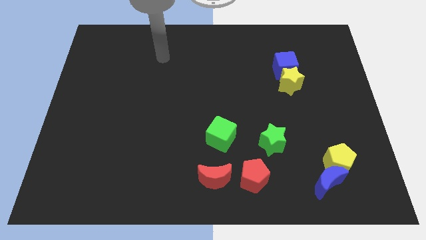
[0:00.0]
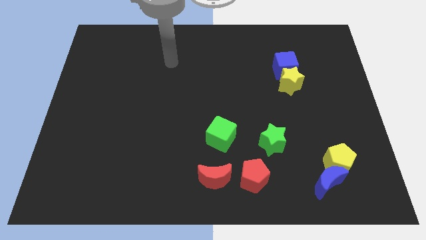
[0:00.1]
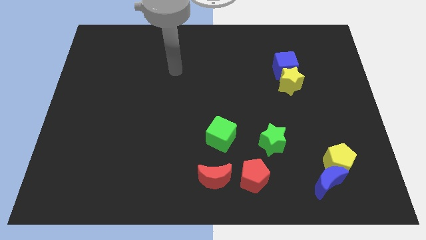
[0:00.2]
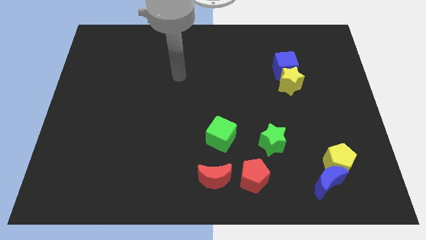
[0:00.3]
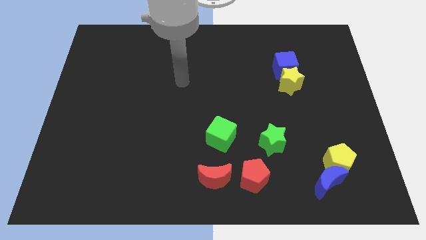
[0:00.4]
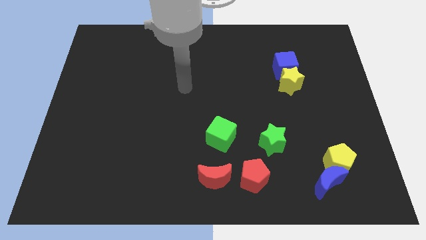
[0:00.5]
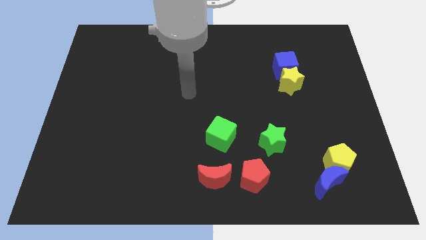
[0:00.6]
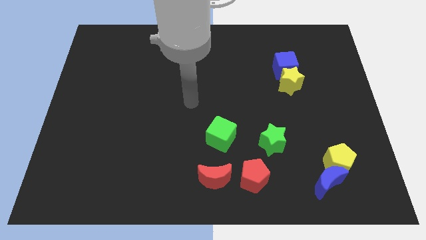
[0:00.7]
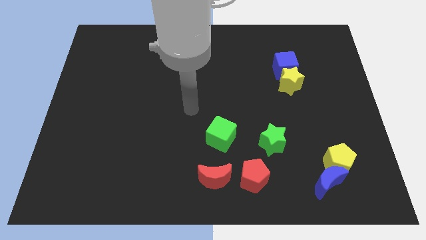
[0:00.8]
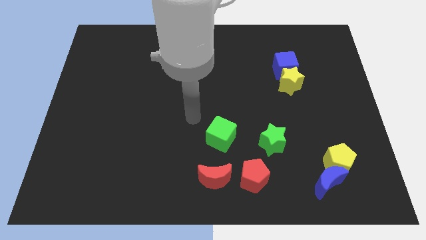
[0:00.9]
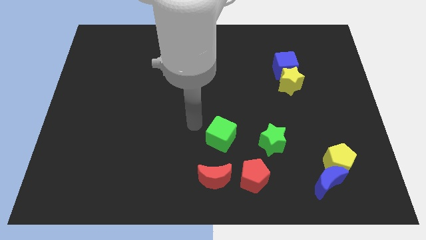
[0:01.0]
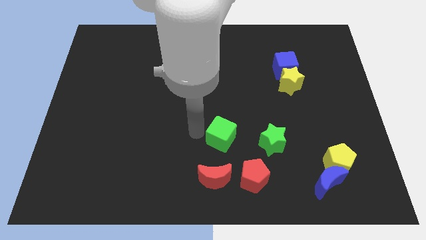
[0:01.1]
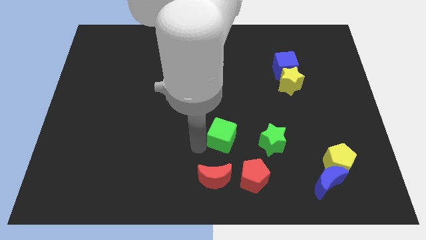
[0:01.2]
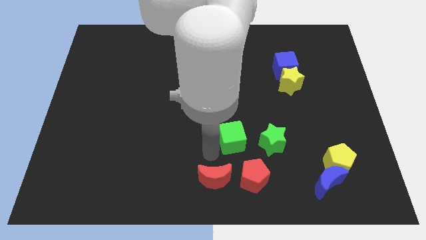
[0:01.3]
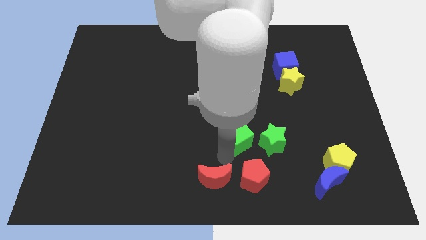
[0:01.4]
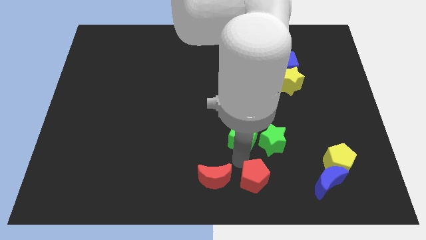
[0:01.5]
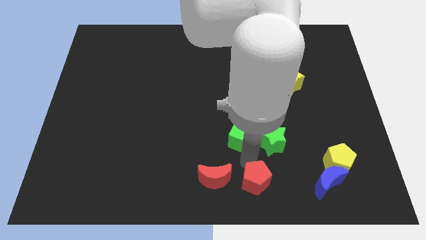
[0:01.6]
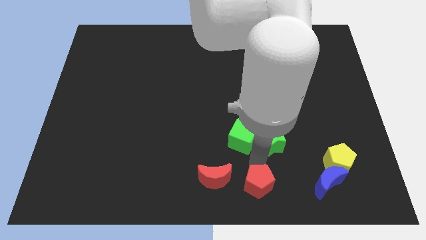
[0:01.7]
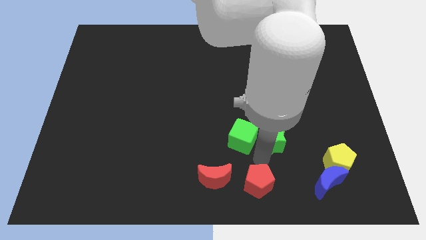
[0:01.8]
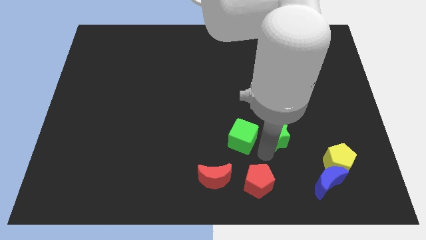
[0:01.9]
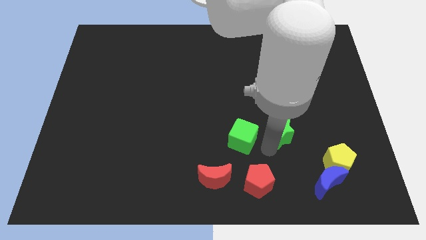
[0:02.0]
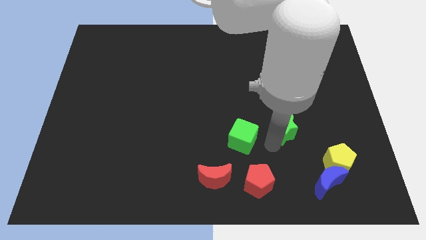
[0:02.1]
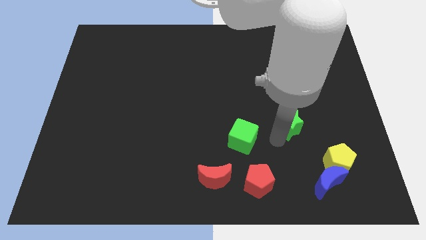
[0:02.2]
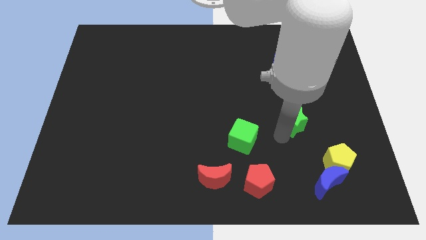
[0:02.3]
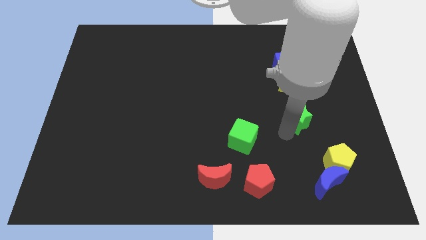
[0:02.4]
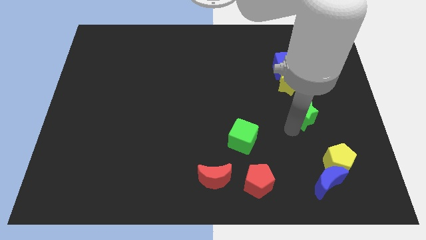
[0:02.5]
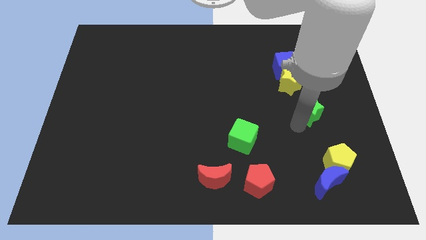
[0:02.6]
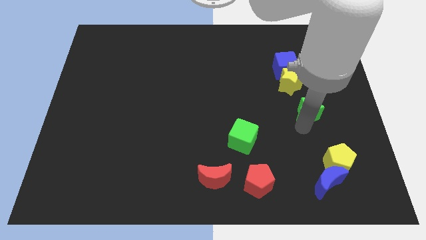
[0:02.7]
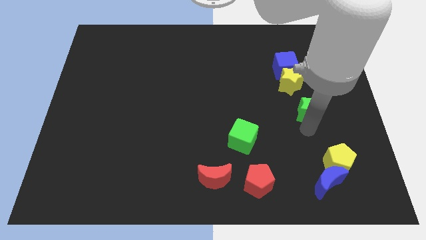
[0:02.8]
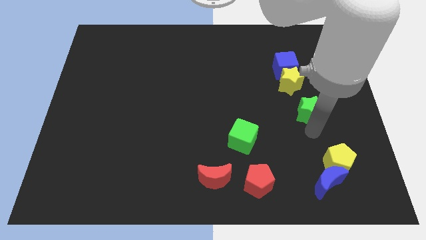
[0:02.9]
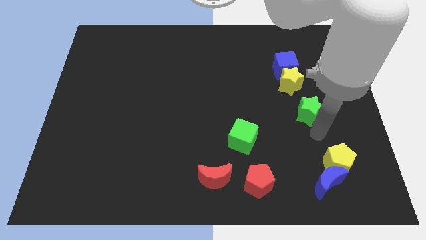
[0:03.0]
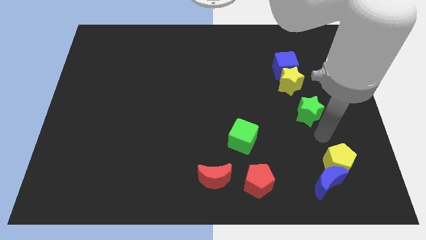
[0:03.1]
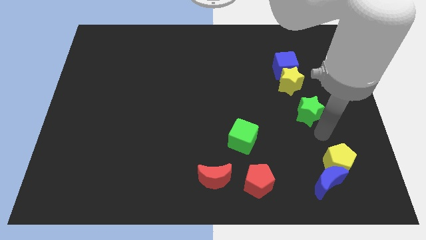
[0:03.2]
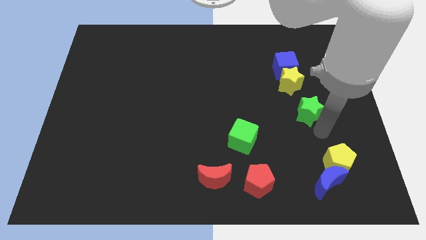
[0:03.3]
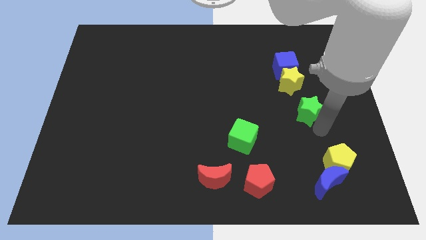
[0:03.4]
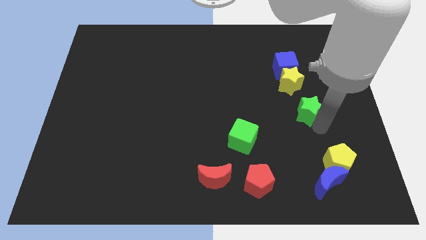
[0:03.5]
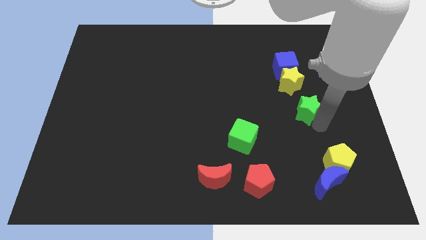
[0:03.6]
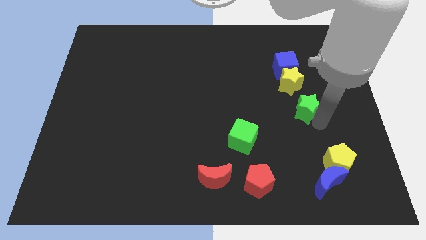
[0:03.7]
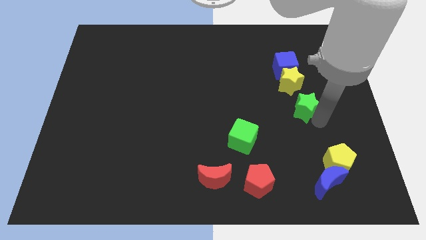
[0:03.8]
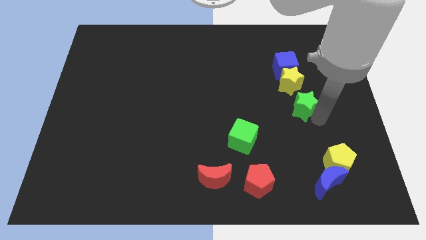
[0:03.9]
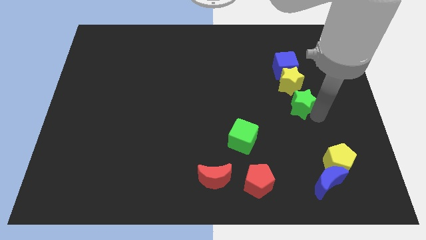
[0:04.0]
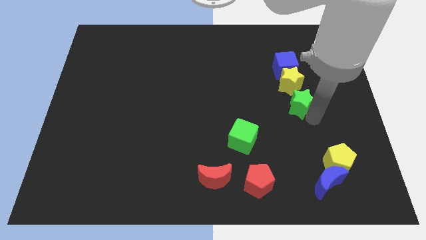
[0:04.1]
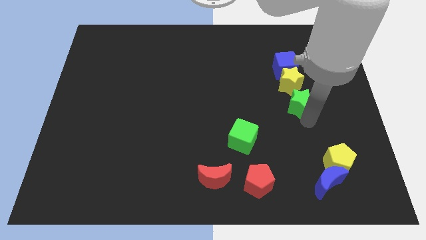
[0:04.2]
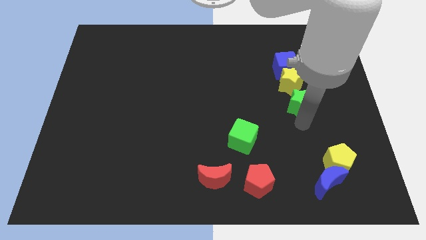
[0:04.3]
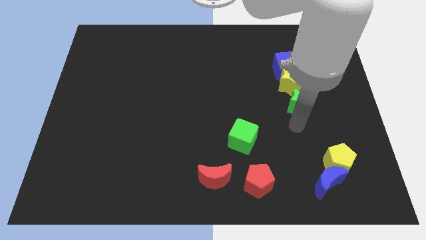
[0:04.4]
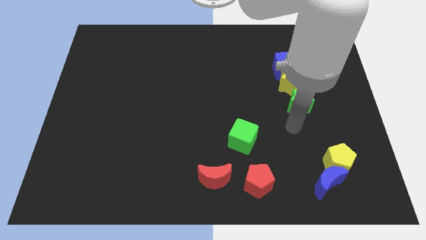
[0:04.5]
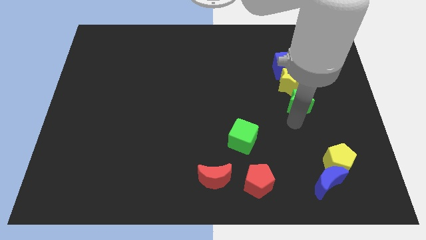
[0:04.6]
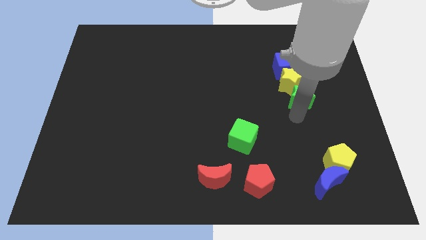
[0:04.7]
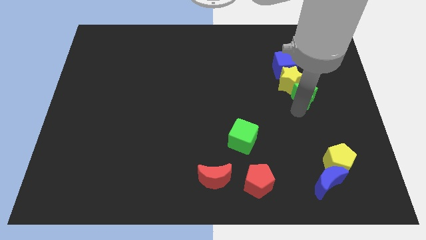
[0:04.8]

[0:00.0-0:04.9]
slide the green star to the bottom right side of the blue cube

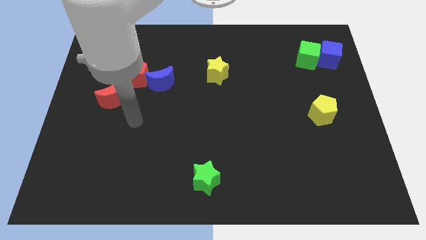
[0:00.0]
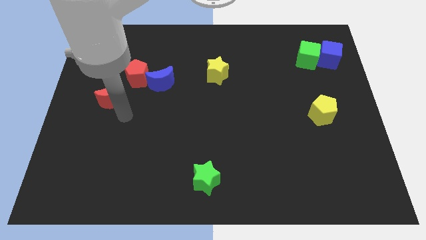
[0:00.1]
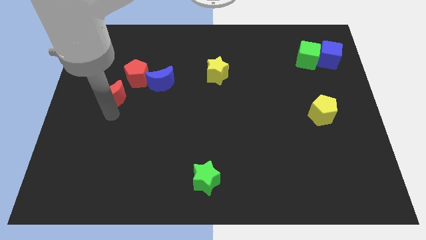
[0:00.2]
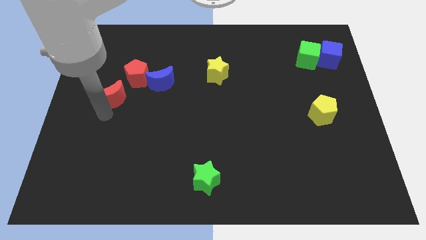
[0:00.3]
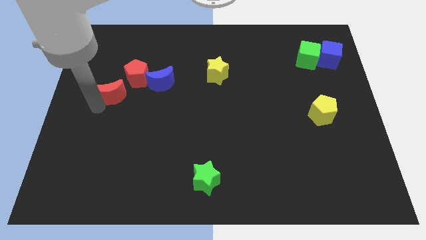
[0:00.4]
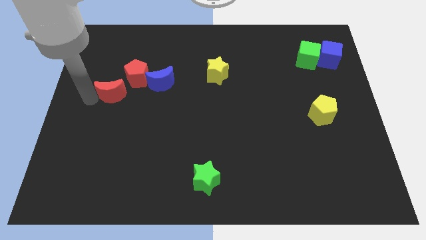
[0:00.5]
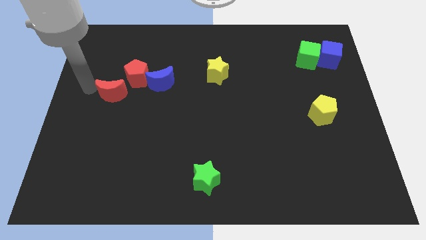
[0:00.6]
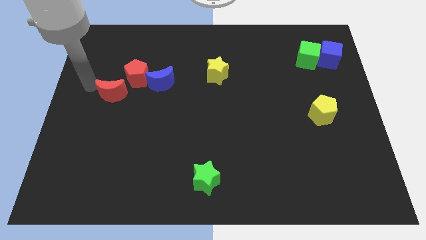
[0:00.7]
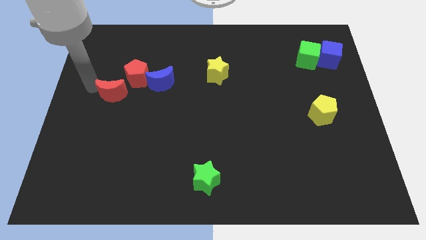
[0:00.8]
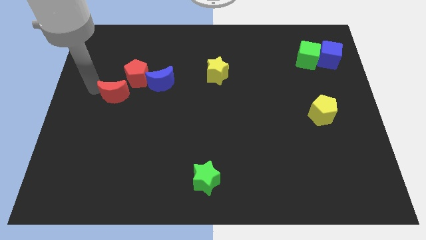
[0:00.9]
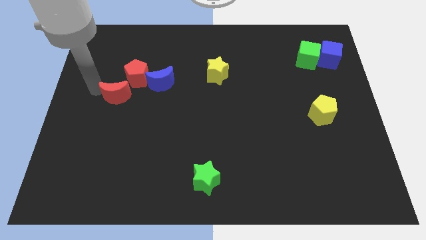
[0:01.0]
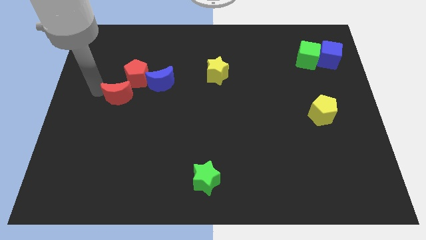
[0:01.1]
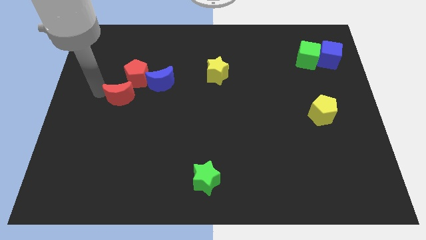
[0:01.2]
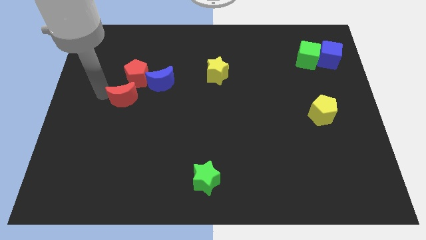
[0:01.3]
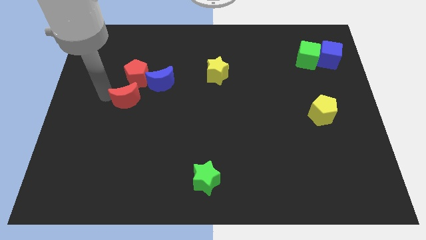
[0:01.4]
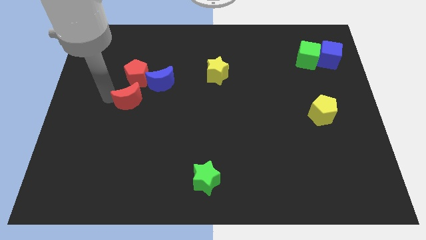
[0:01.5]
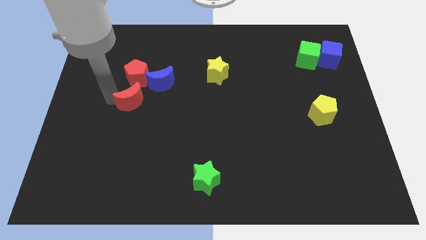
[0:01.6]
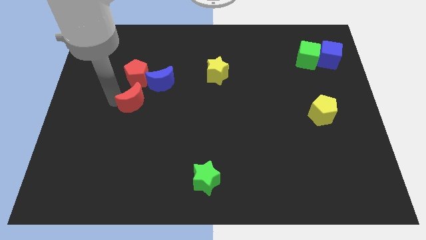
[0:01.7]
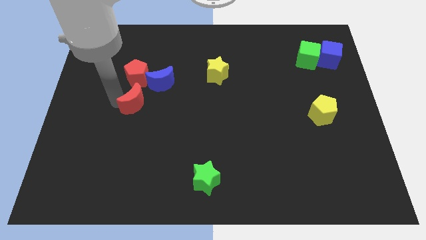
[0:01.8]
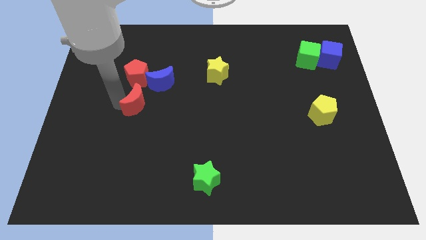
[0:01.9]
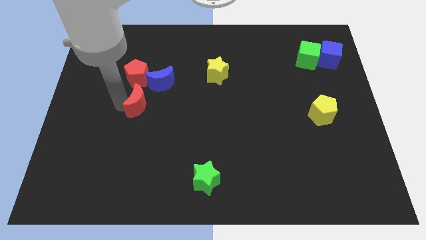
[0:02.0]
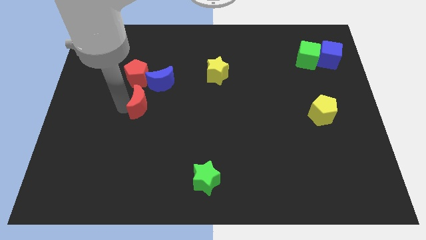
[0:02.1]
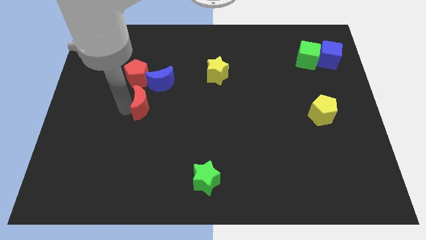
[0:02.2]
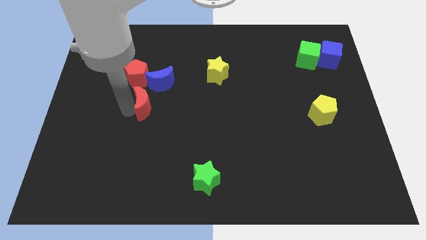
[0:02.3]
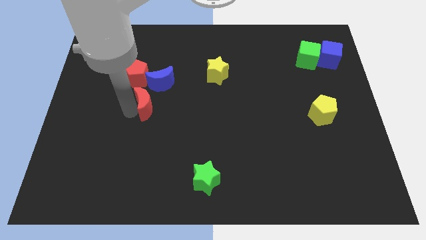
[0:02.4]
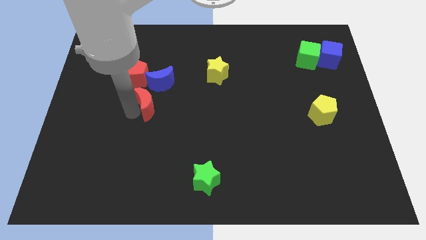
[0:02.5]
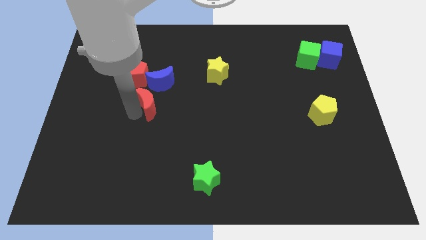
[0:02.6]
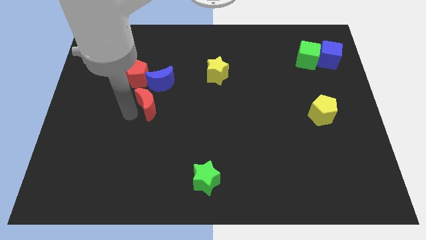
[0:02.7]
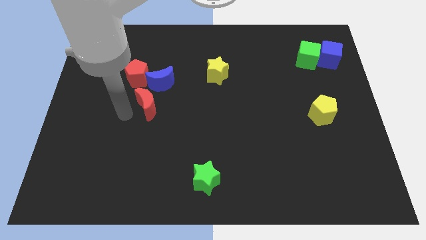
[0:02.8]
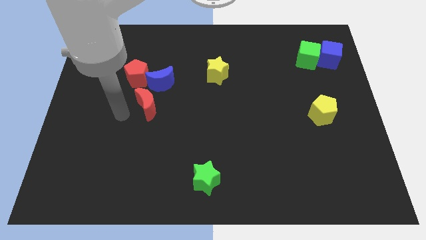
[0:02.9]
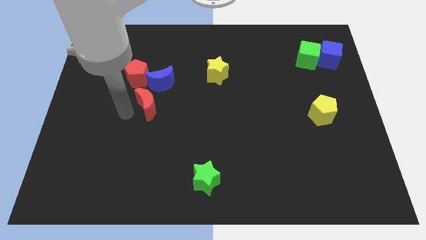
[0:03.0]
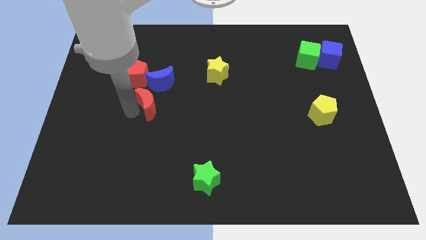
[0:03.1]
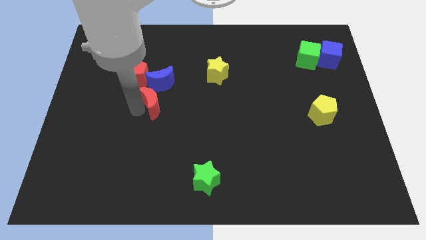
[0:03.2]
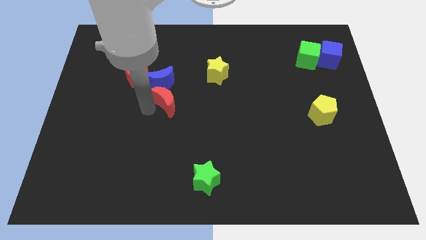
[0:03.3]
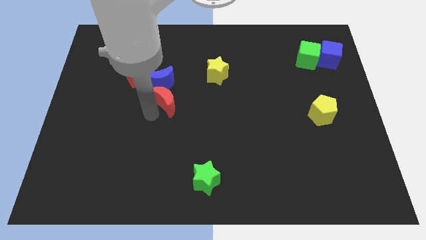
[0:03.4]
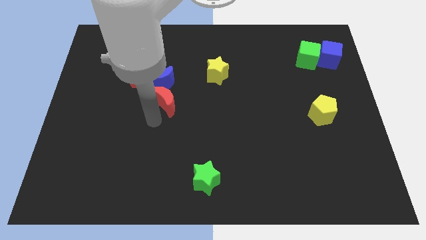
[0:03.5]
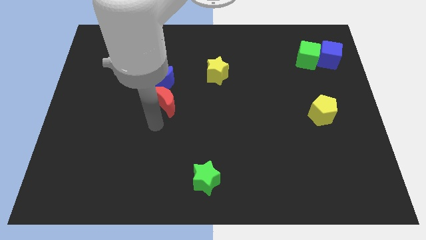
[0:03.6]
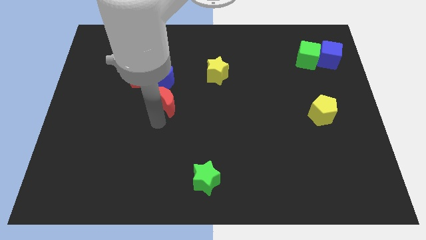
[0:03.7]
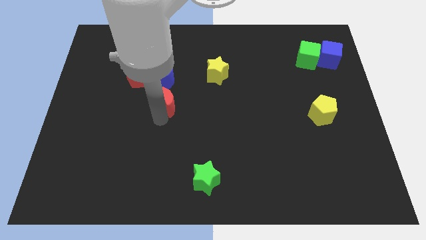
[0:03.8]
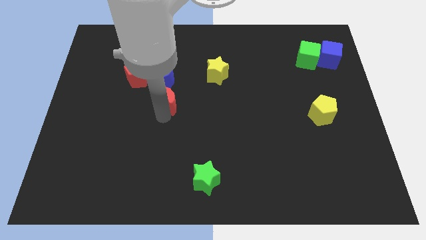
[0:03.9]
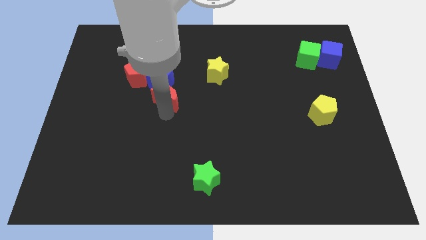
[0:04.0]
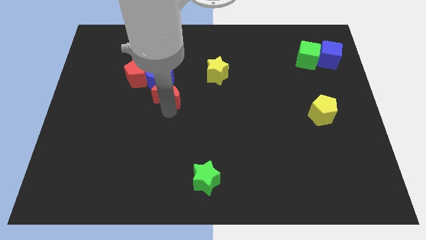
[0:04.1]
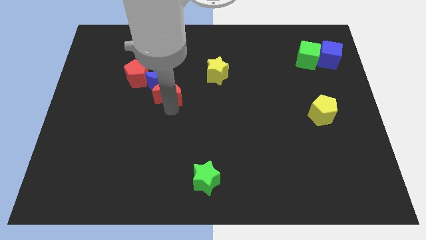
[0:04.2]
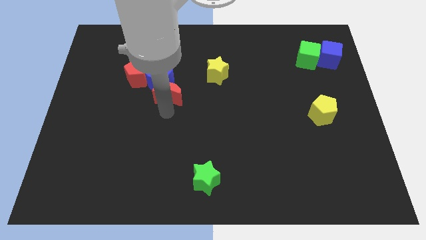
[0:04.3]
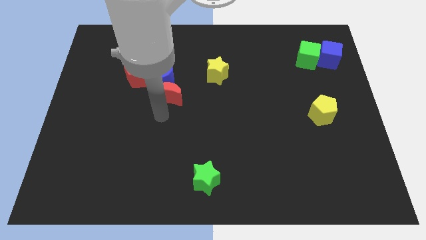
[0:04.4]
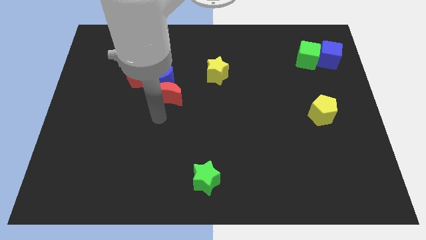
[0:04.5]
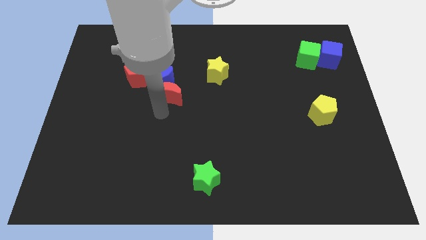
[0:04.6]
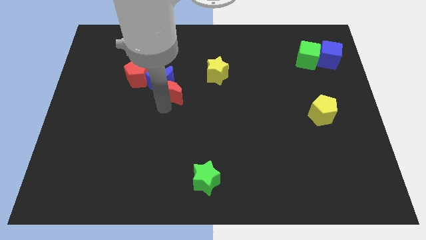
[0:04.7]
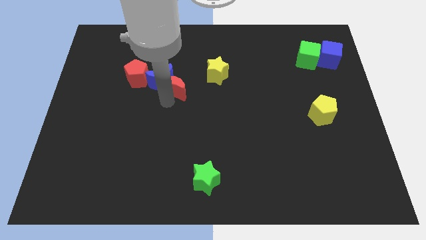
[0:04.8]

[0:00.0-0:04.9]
push the red moon right of the red pentagon
